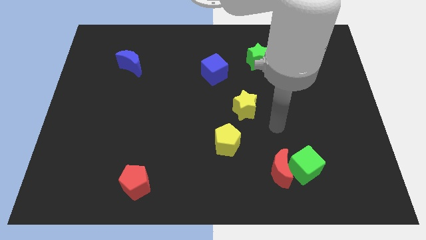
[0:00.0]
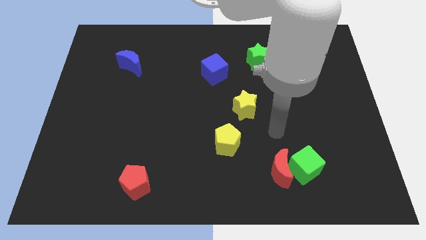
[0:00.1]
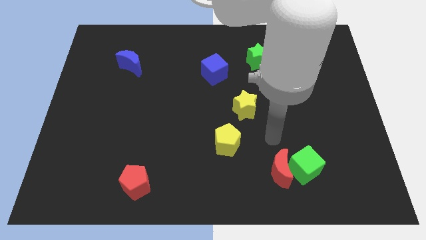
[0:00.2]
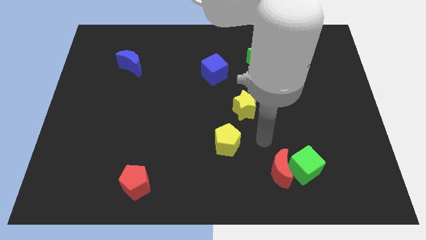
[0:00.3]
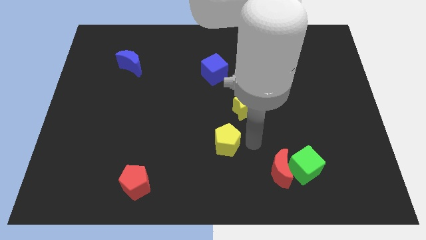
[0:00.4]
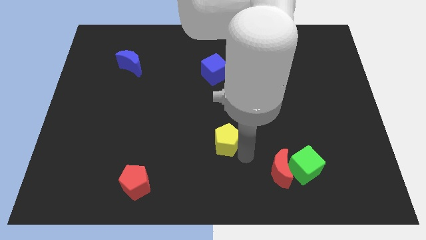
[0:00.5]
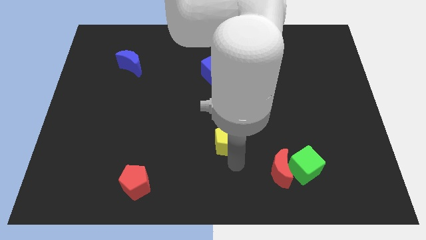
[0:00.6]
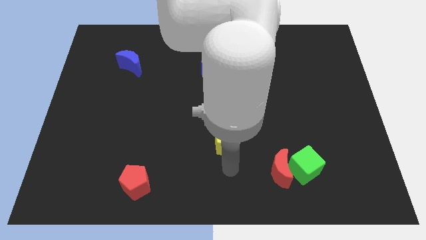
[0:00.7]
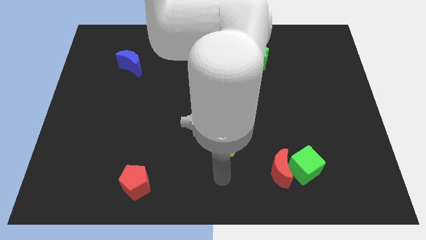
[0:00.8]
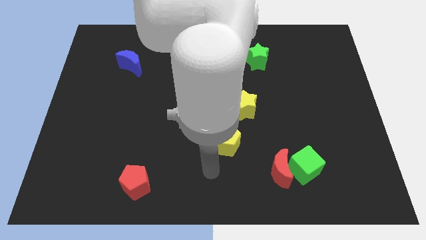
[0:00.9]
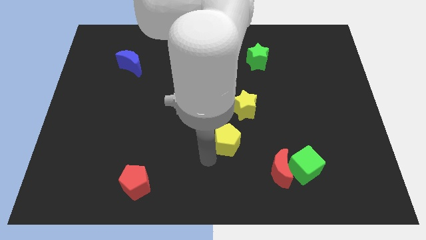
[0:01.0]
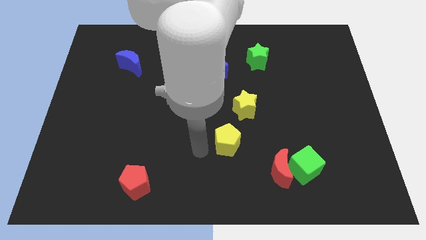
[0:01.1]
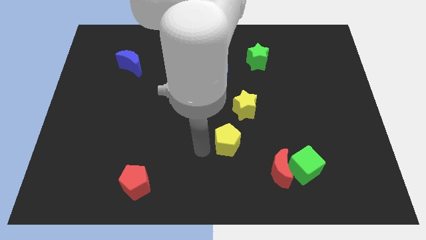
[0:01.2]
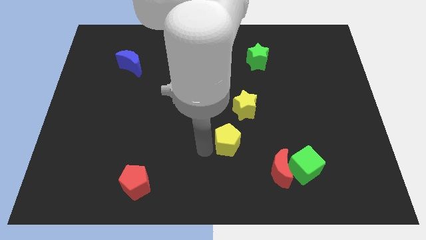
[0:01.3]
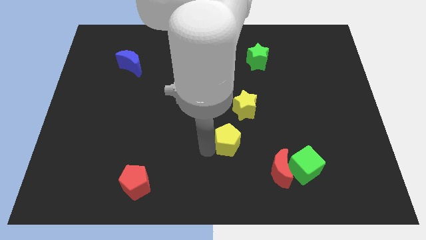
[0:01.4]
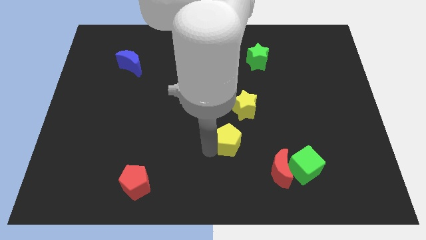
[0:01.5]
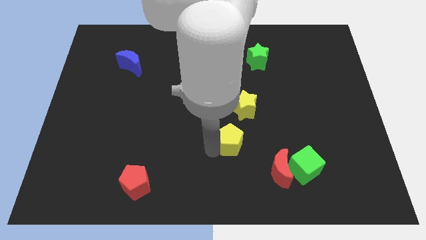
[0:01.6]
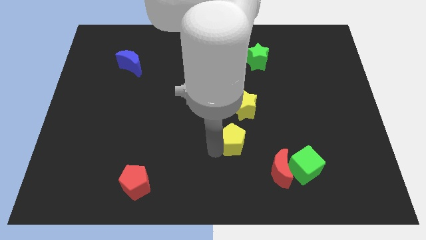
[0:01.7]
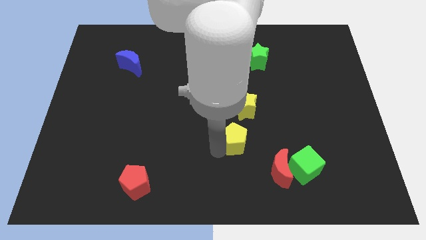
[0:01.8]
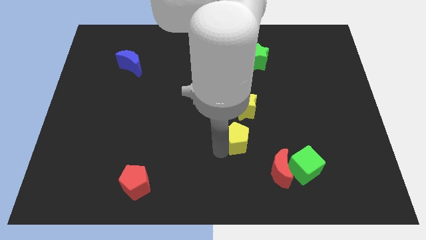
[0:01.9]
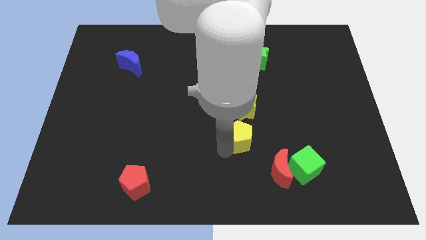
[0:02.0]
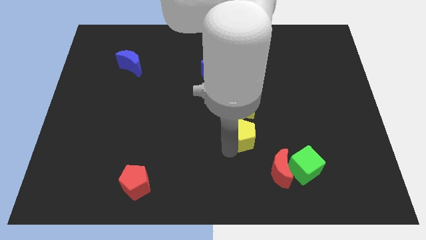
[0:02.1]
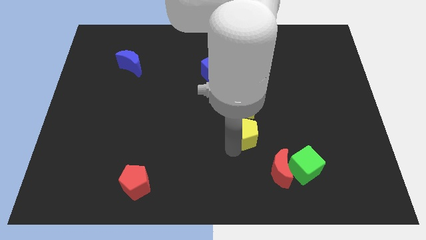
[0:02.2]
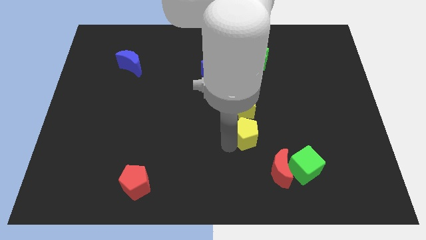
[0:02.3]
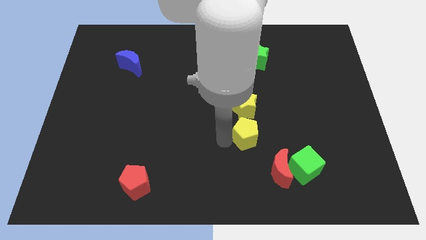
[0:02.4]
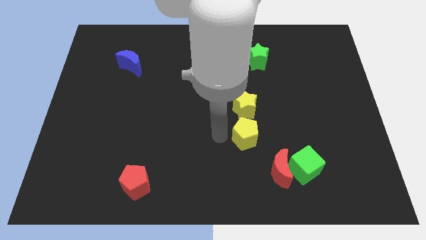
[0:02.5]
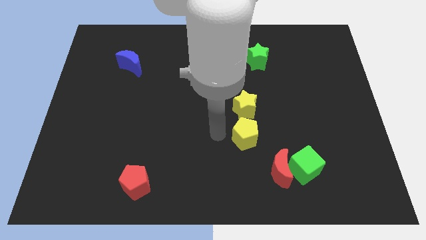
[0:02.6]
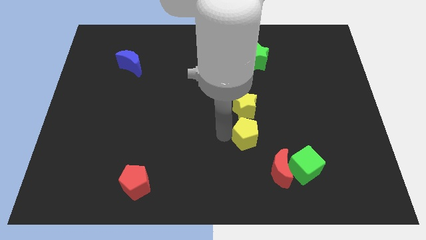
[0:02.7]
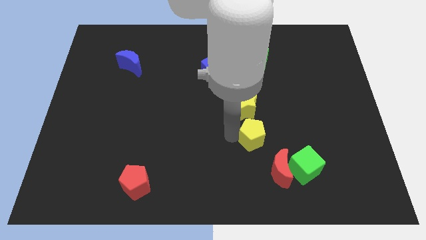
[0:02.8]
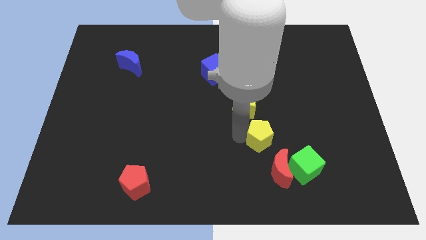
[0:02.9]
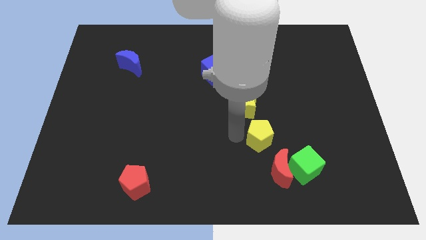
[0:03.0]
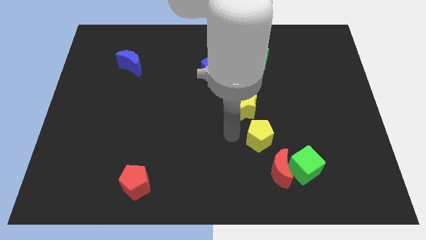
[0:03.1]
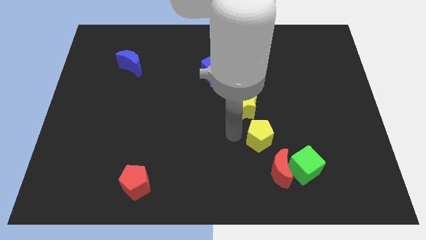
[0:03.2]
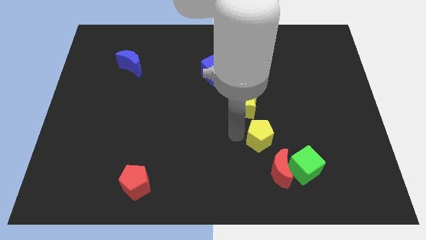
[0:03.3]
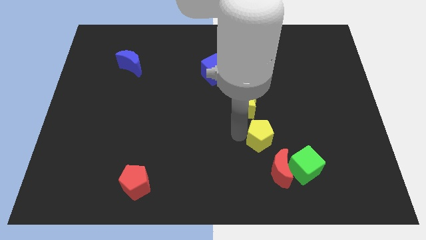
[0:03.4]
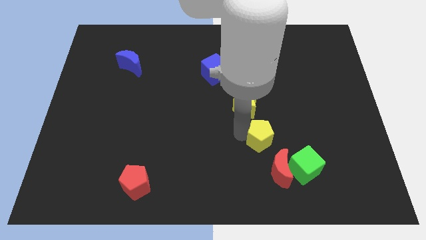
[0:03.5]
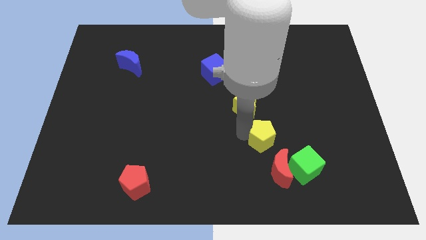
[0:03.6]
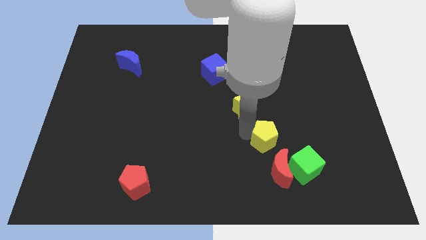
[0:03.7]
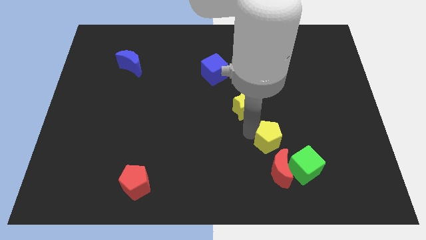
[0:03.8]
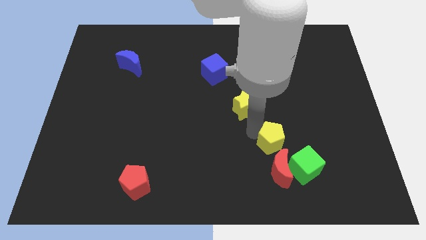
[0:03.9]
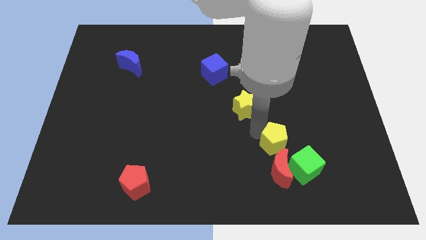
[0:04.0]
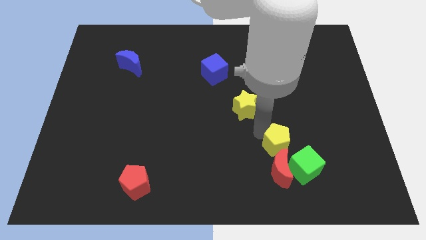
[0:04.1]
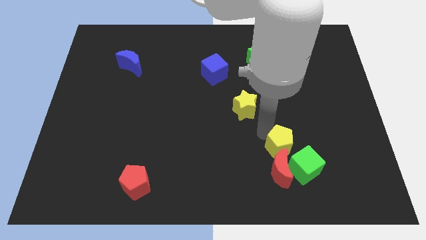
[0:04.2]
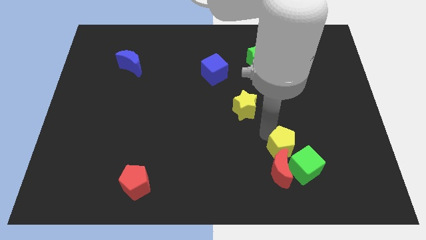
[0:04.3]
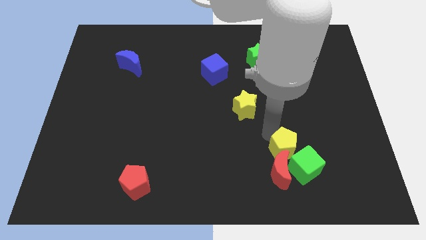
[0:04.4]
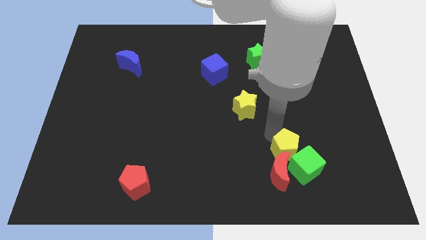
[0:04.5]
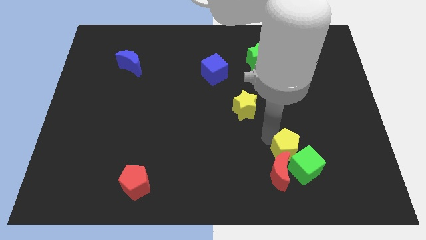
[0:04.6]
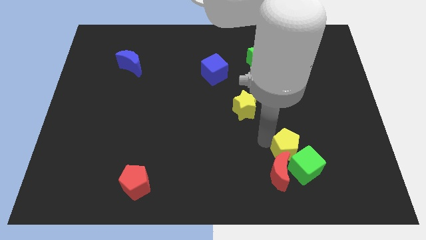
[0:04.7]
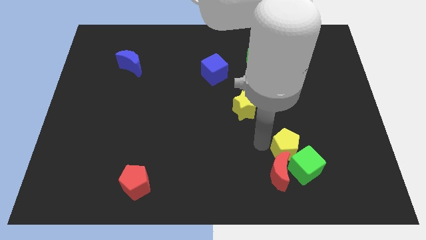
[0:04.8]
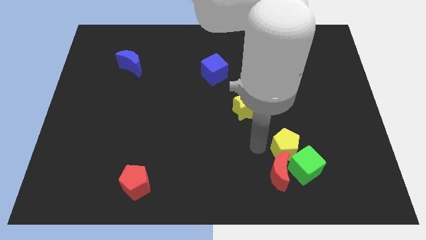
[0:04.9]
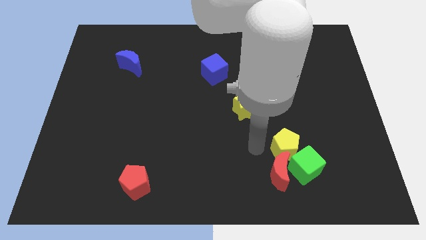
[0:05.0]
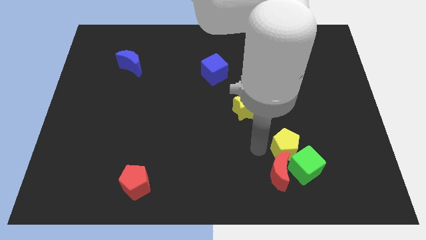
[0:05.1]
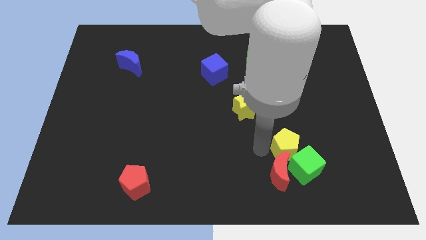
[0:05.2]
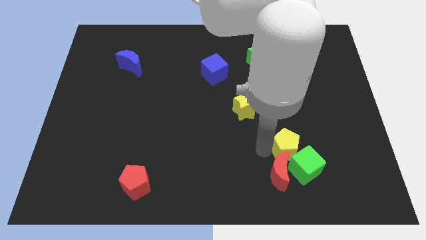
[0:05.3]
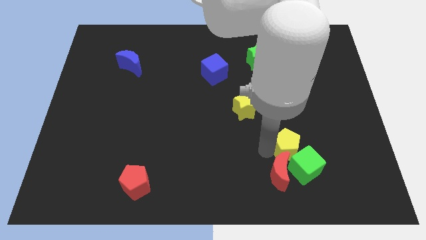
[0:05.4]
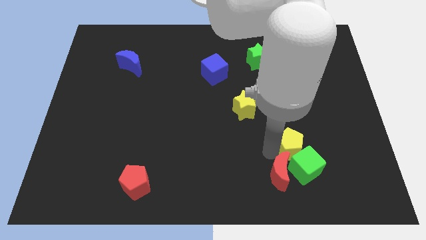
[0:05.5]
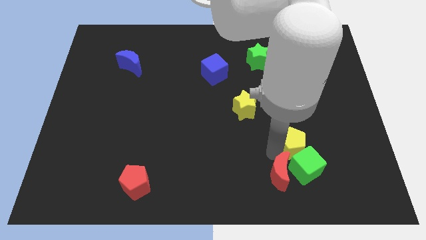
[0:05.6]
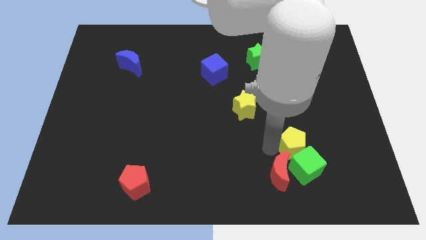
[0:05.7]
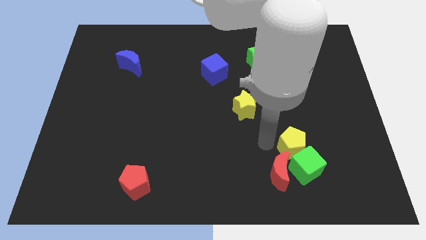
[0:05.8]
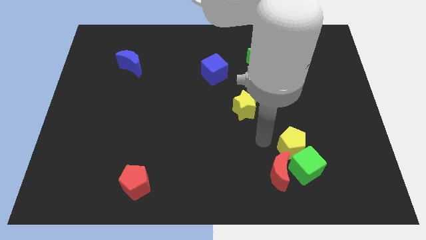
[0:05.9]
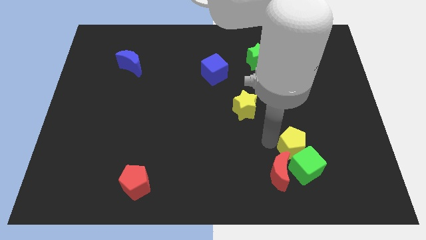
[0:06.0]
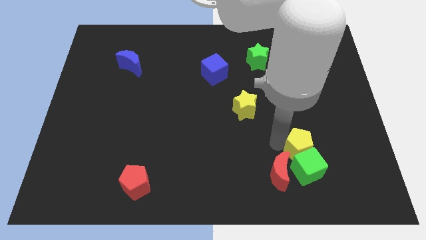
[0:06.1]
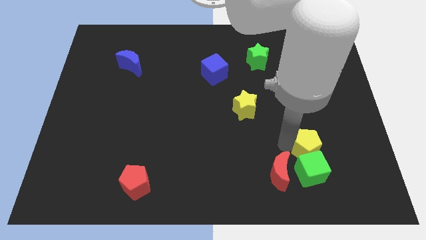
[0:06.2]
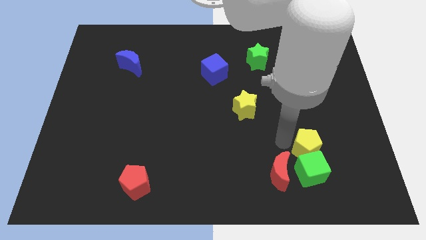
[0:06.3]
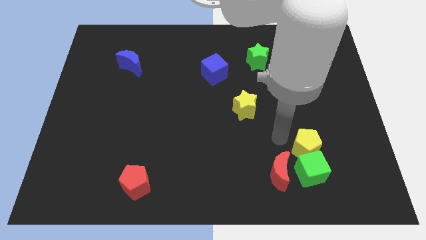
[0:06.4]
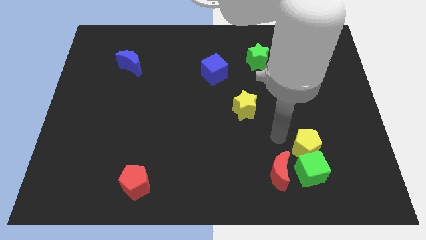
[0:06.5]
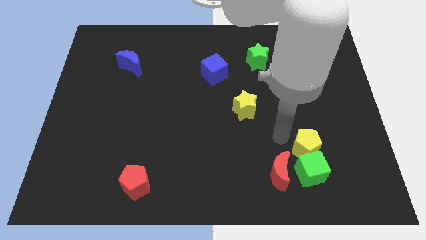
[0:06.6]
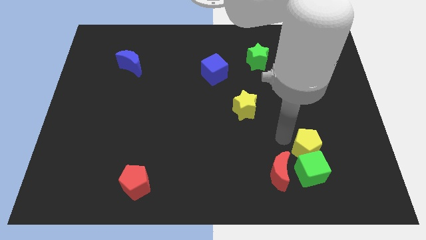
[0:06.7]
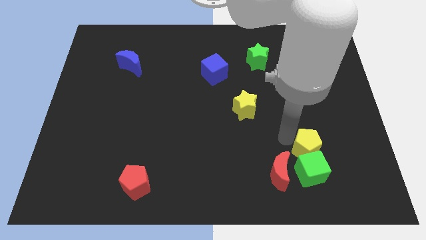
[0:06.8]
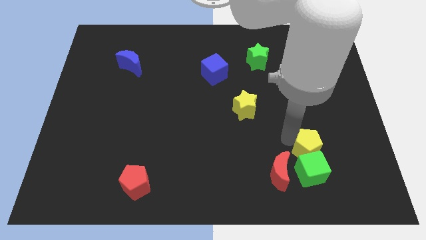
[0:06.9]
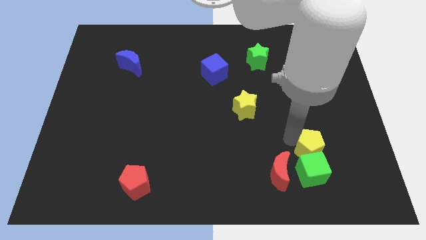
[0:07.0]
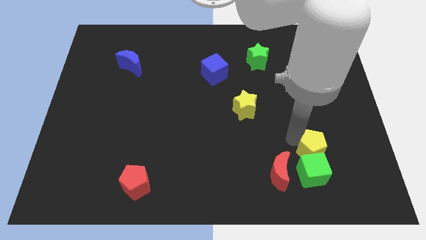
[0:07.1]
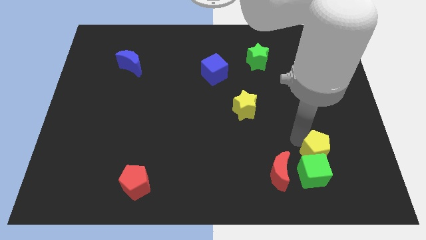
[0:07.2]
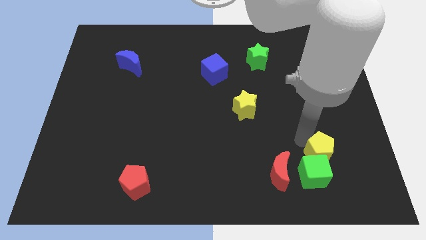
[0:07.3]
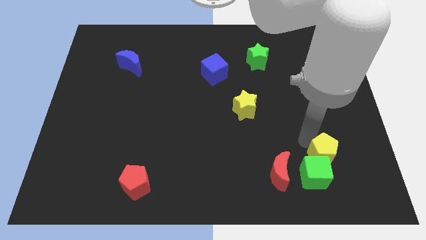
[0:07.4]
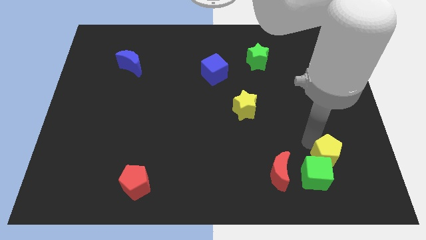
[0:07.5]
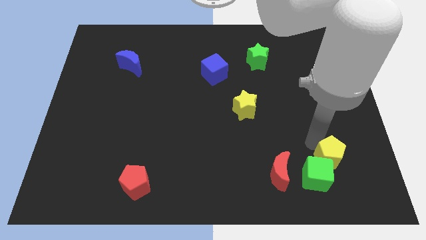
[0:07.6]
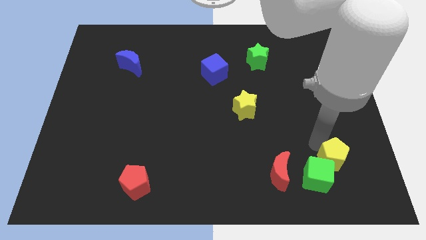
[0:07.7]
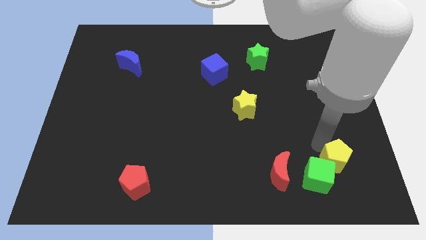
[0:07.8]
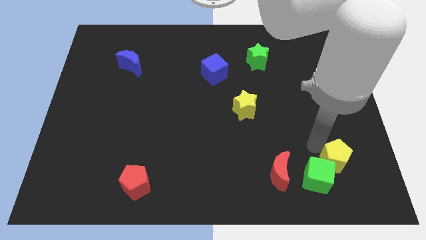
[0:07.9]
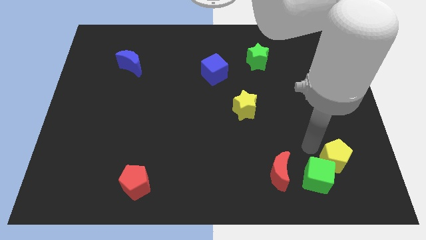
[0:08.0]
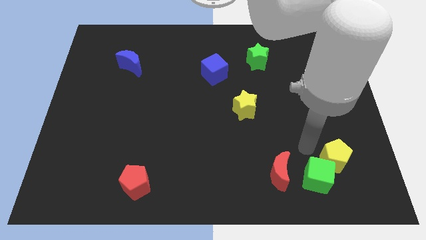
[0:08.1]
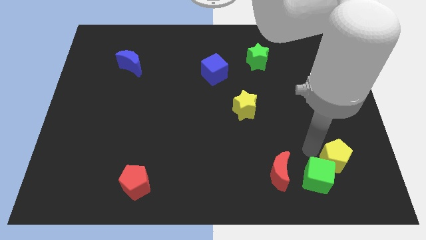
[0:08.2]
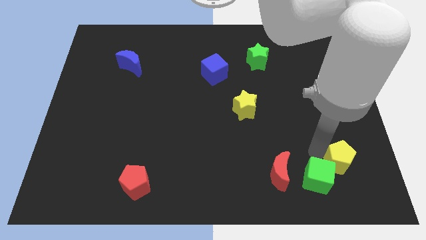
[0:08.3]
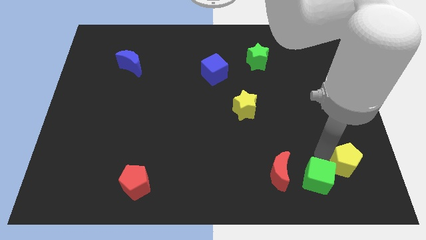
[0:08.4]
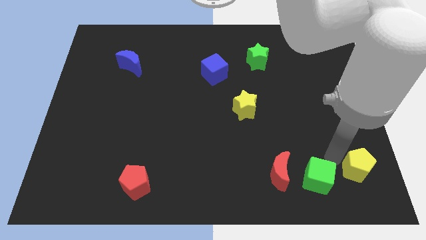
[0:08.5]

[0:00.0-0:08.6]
slide the yellow pentagon to the lower right corner
